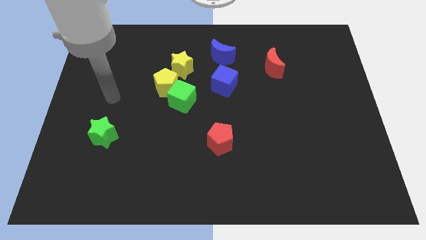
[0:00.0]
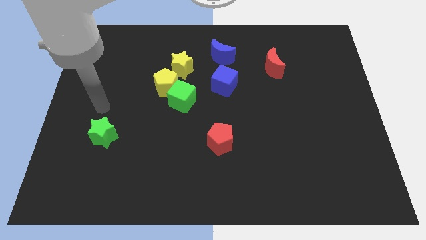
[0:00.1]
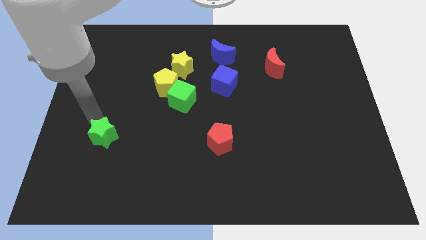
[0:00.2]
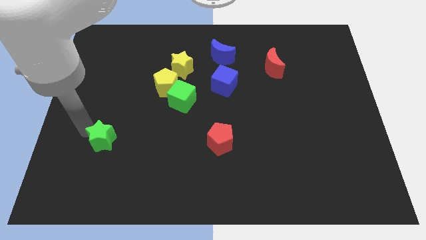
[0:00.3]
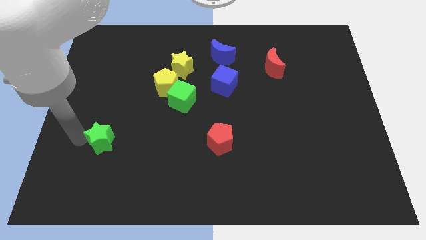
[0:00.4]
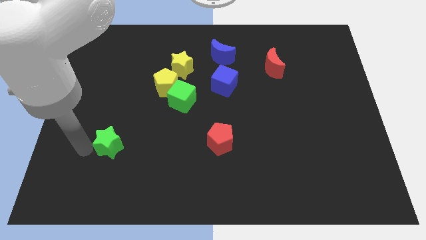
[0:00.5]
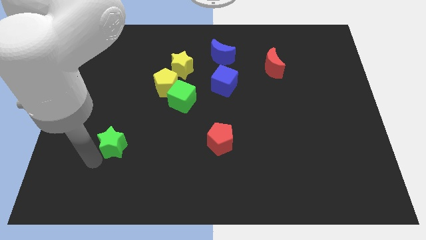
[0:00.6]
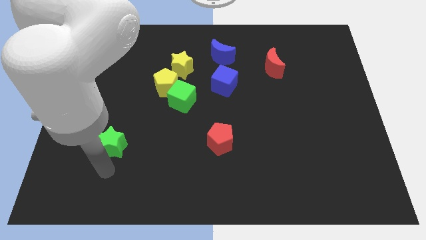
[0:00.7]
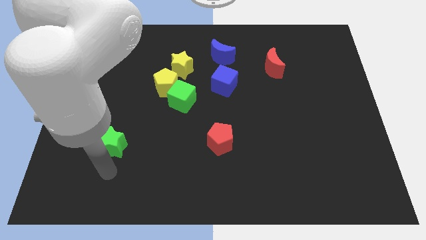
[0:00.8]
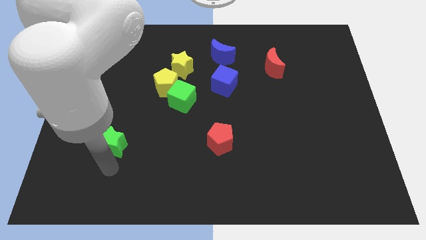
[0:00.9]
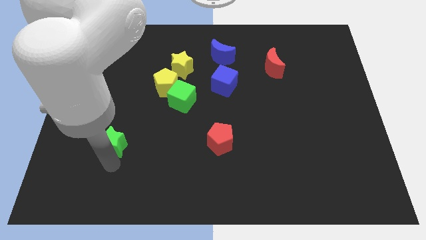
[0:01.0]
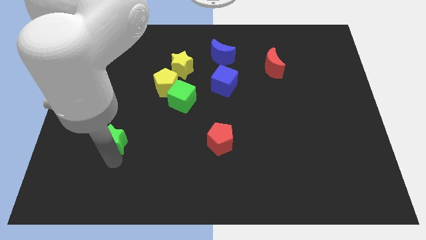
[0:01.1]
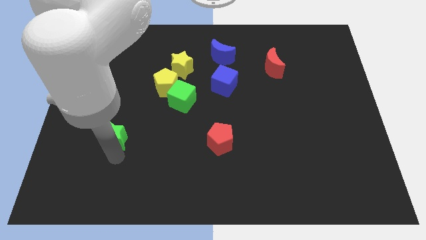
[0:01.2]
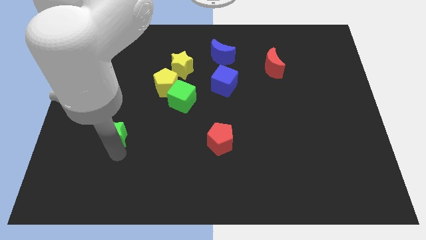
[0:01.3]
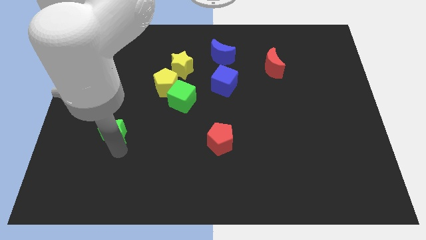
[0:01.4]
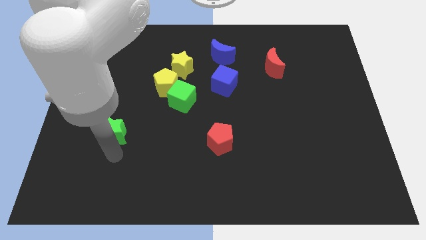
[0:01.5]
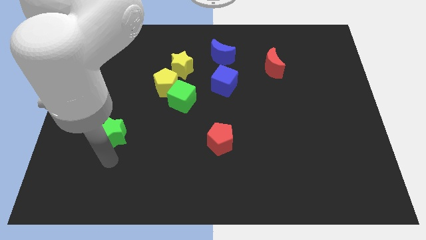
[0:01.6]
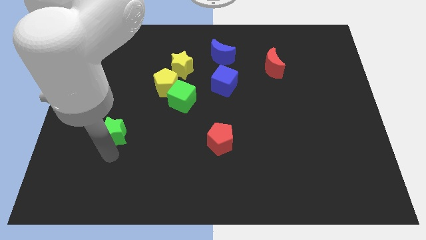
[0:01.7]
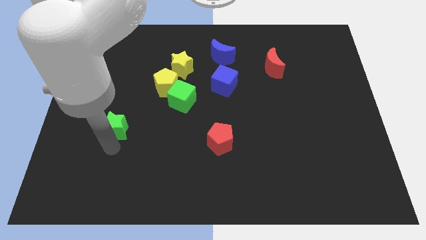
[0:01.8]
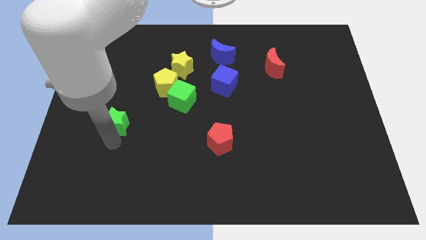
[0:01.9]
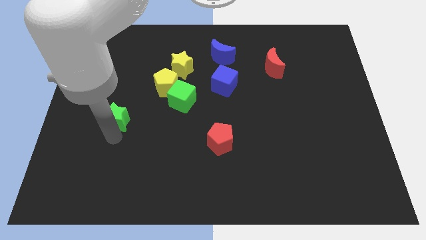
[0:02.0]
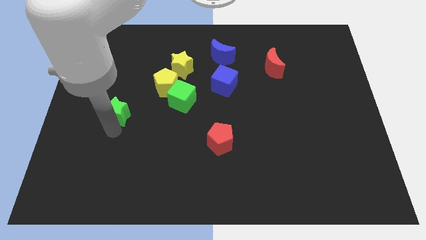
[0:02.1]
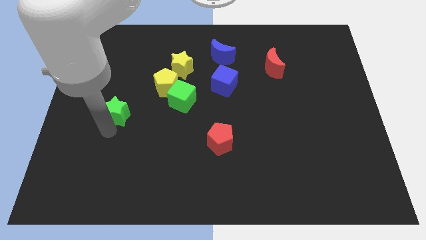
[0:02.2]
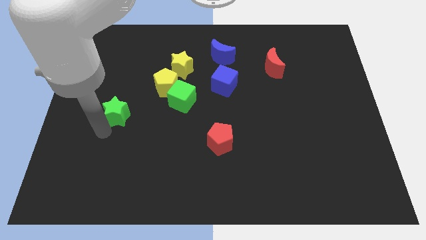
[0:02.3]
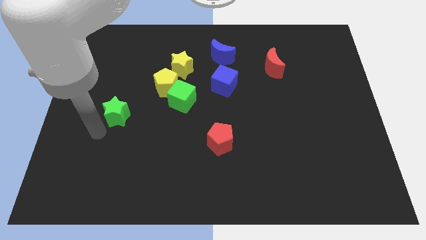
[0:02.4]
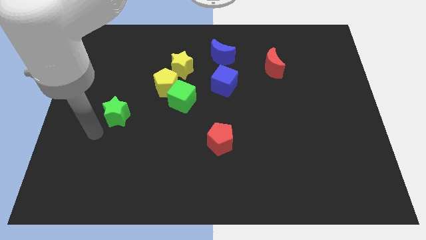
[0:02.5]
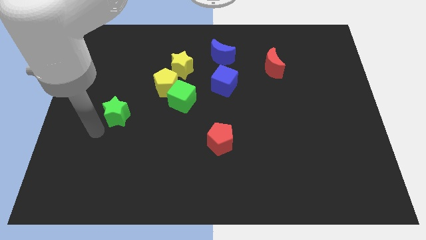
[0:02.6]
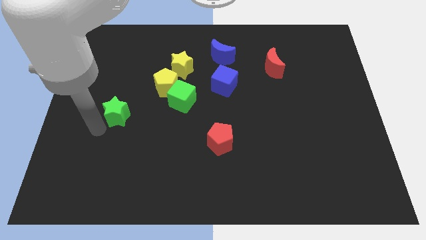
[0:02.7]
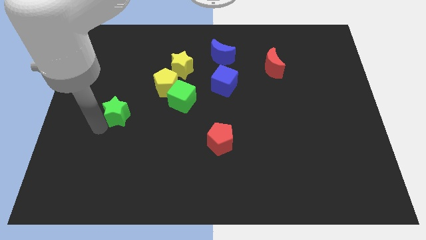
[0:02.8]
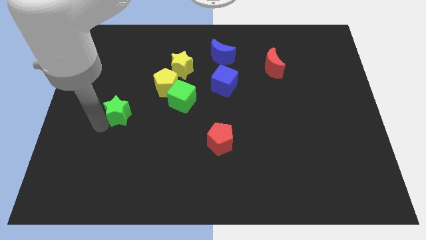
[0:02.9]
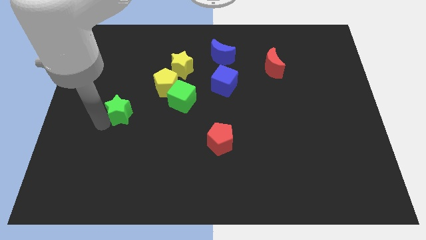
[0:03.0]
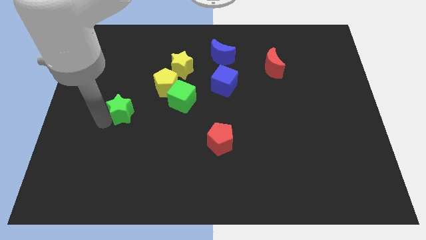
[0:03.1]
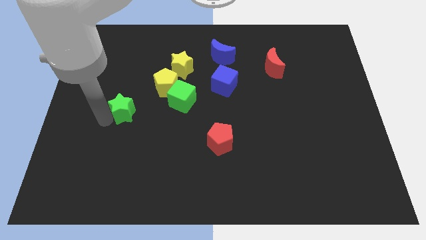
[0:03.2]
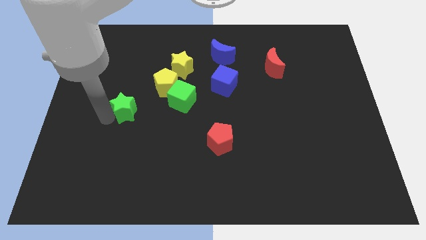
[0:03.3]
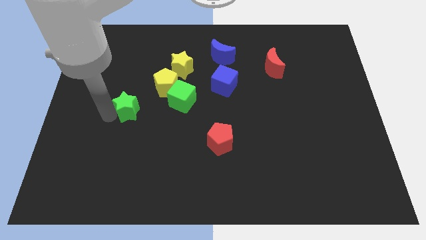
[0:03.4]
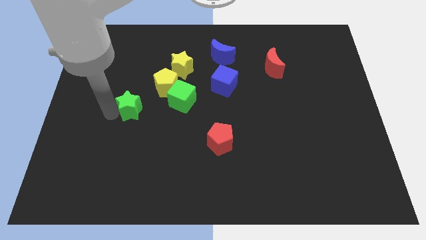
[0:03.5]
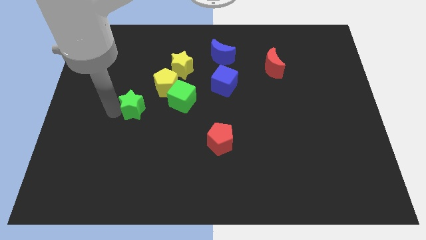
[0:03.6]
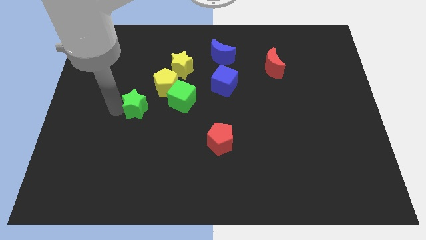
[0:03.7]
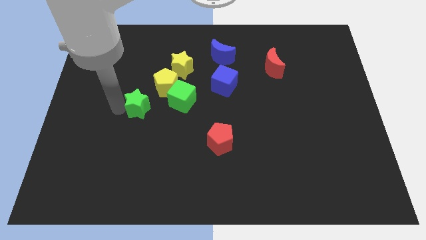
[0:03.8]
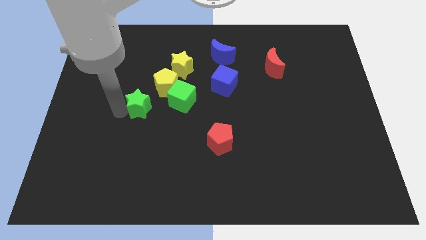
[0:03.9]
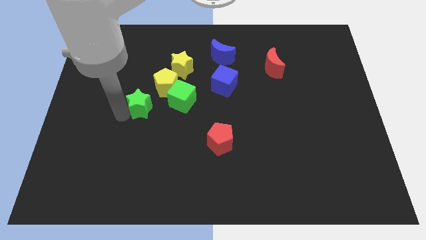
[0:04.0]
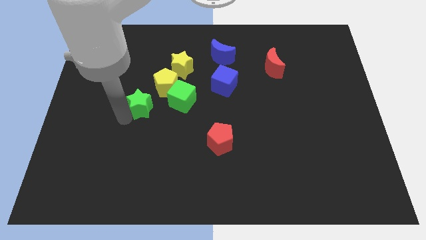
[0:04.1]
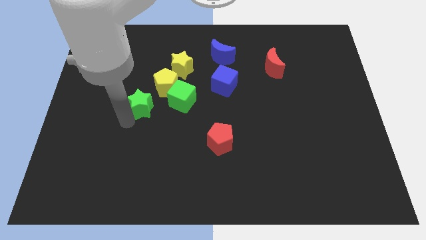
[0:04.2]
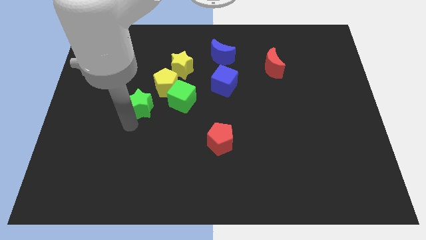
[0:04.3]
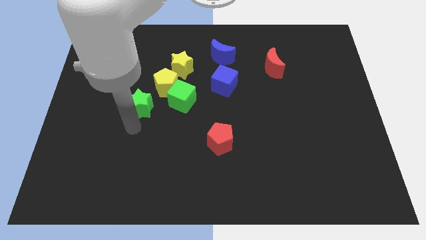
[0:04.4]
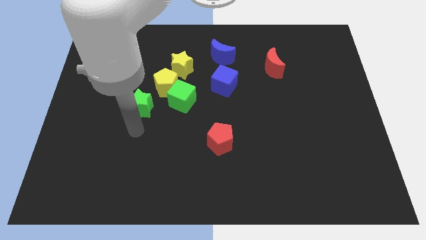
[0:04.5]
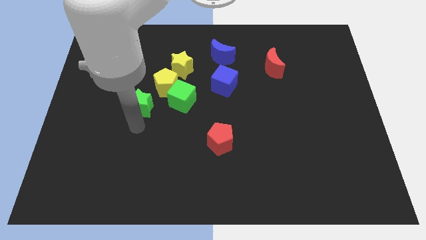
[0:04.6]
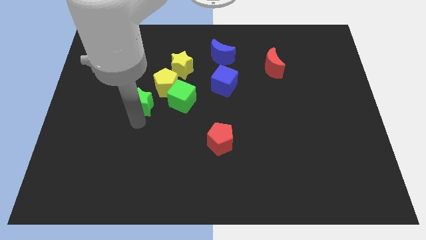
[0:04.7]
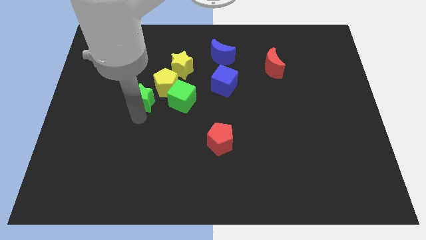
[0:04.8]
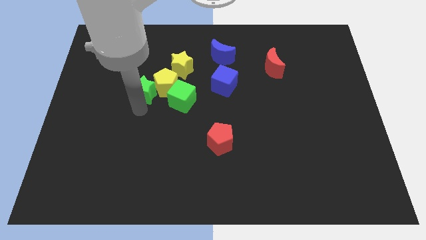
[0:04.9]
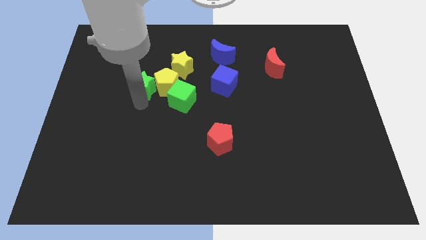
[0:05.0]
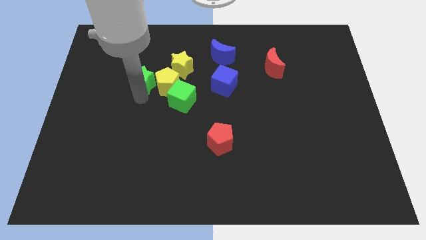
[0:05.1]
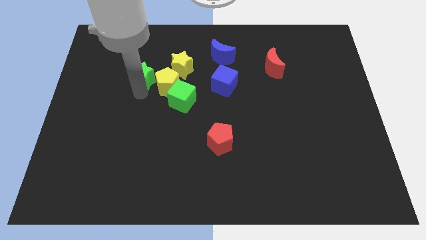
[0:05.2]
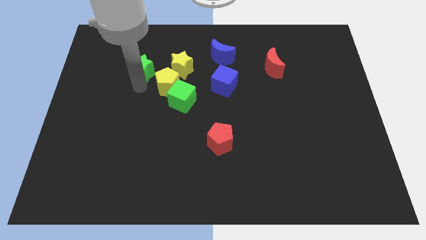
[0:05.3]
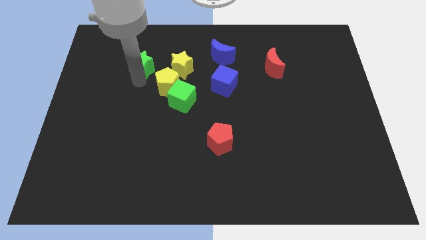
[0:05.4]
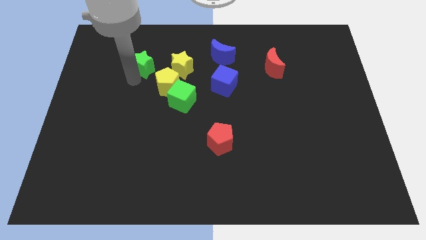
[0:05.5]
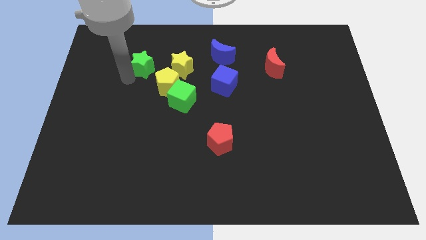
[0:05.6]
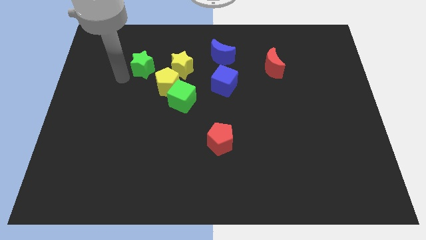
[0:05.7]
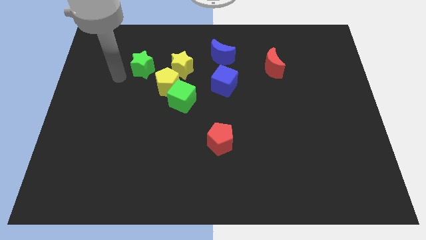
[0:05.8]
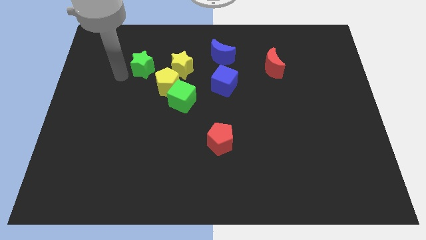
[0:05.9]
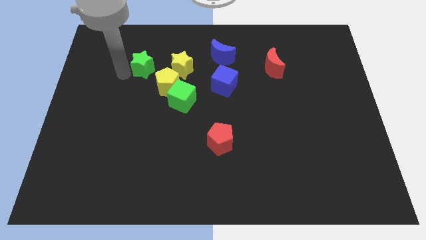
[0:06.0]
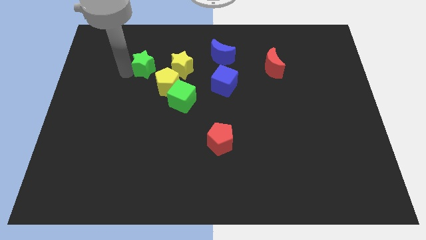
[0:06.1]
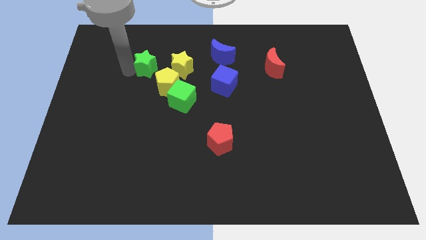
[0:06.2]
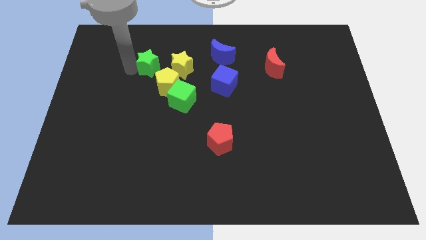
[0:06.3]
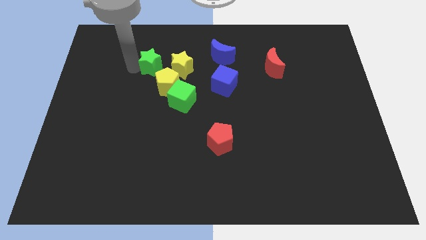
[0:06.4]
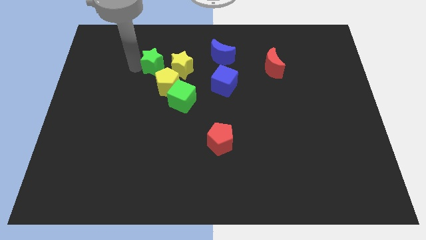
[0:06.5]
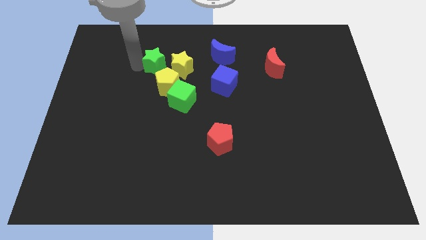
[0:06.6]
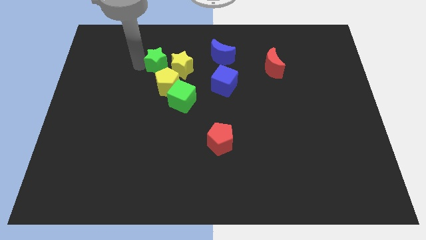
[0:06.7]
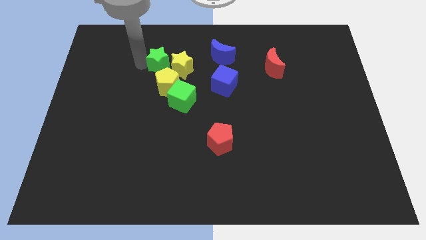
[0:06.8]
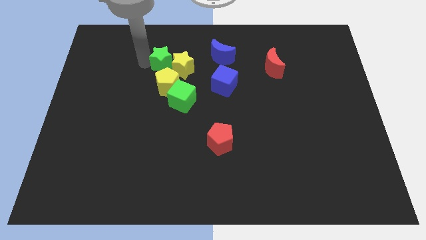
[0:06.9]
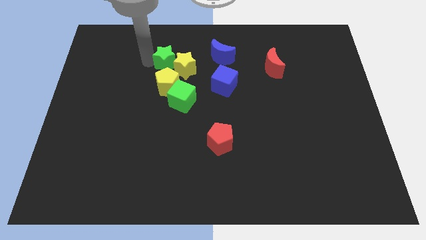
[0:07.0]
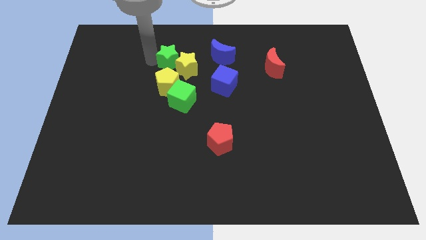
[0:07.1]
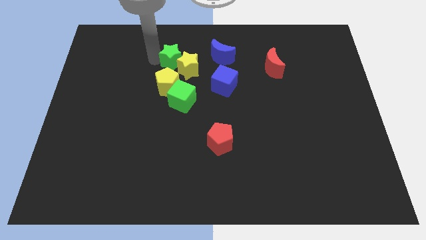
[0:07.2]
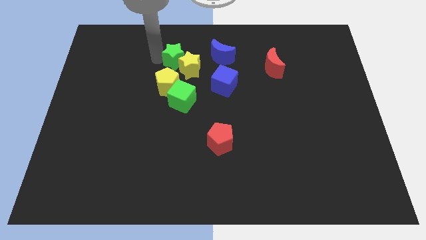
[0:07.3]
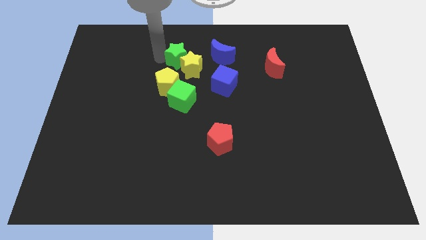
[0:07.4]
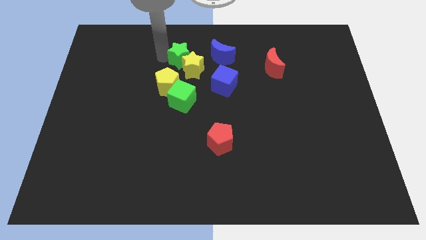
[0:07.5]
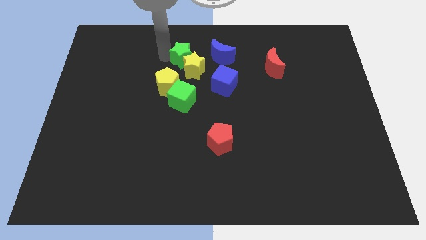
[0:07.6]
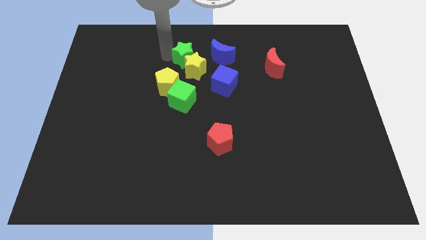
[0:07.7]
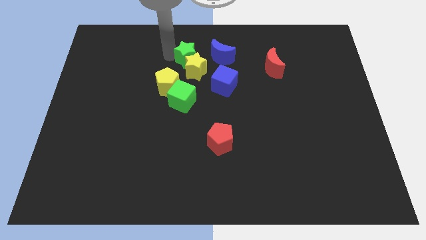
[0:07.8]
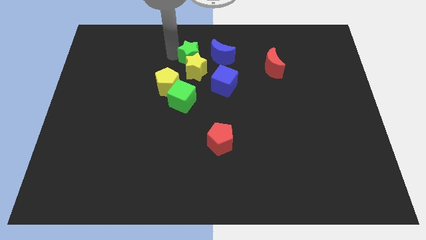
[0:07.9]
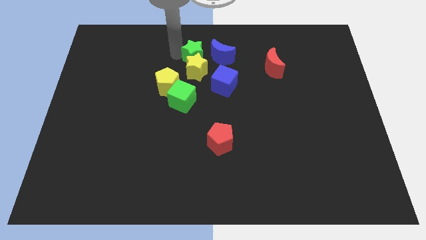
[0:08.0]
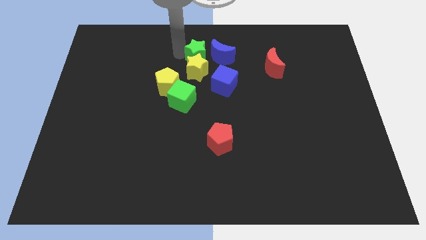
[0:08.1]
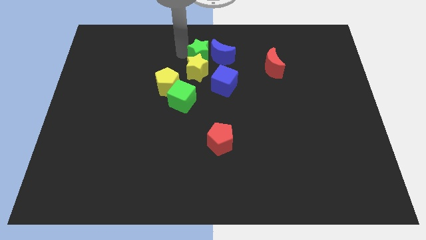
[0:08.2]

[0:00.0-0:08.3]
move the green star close to the blue moon
